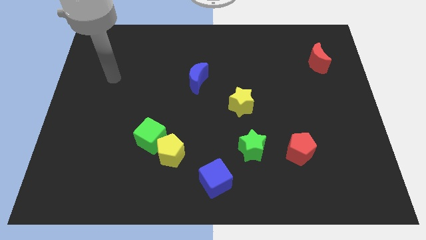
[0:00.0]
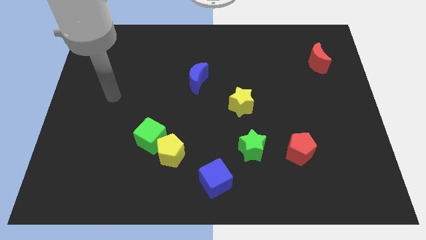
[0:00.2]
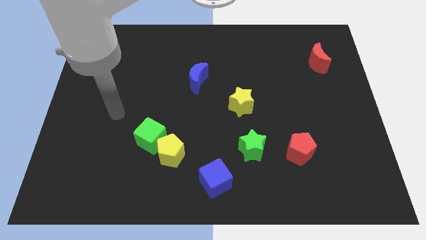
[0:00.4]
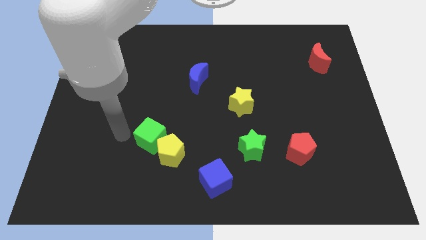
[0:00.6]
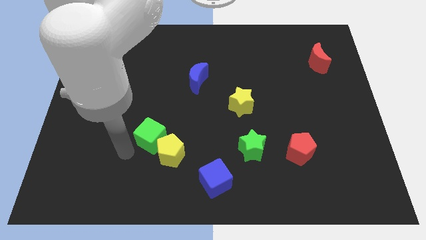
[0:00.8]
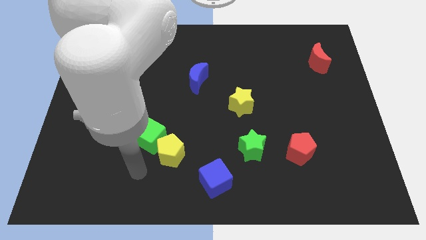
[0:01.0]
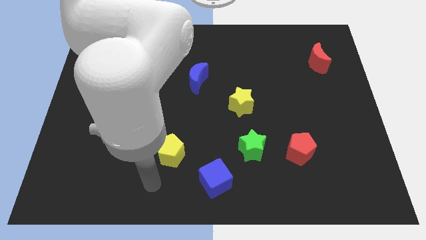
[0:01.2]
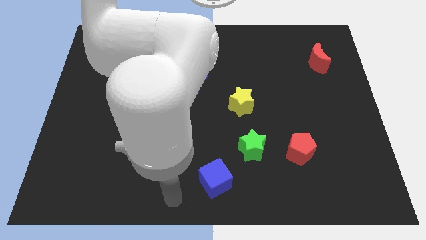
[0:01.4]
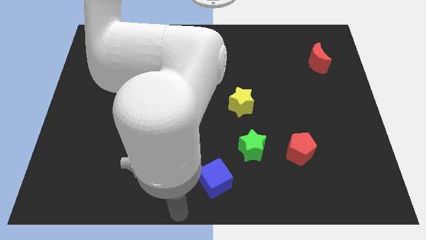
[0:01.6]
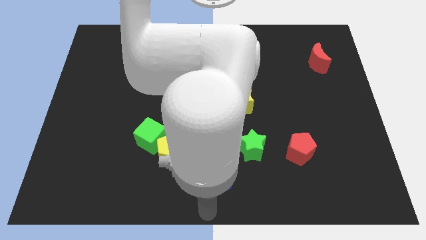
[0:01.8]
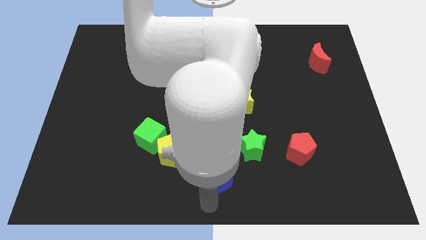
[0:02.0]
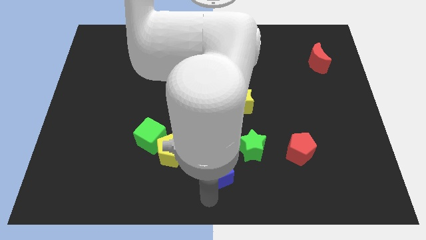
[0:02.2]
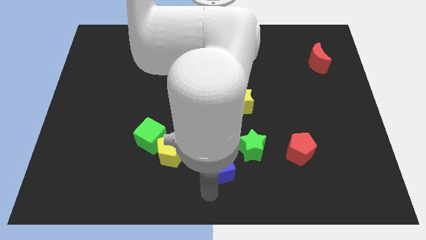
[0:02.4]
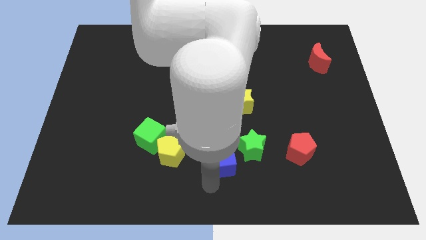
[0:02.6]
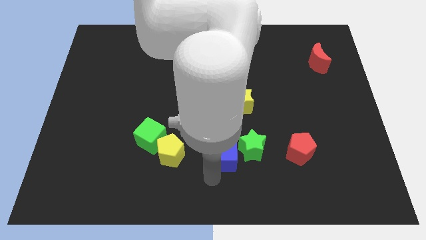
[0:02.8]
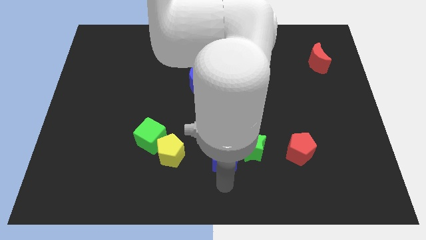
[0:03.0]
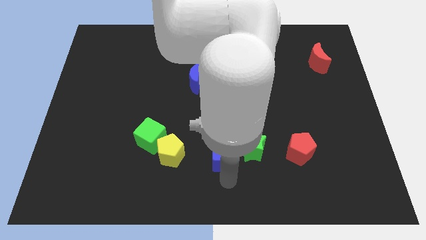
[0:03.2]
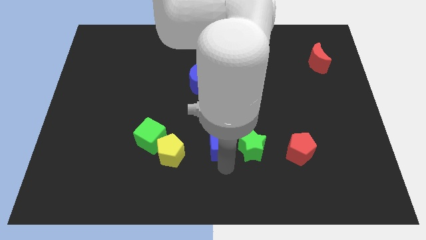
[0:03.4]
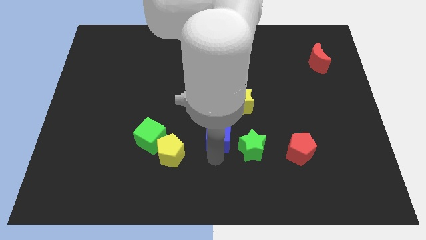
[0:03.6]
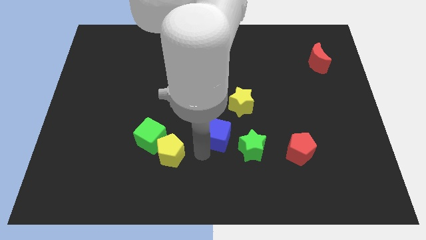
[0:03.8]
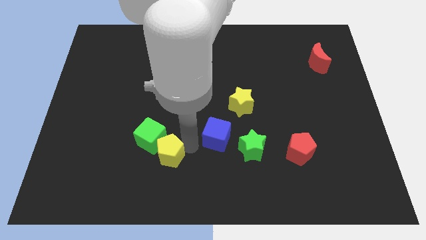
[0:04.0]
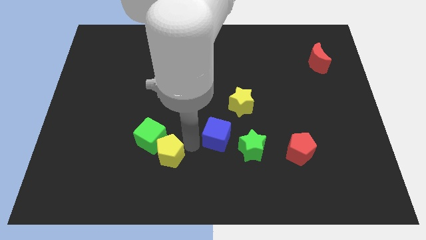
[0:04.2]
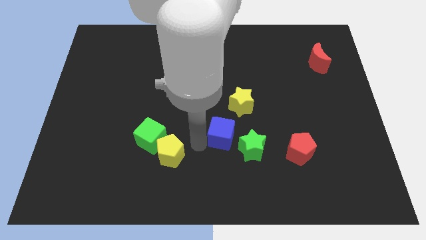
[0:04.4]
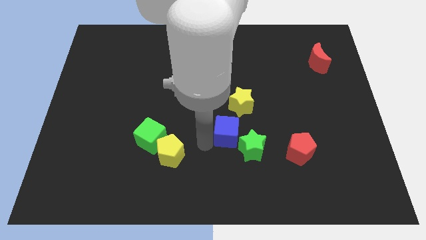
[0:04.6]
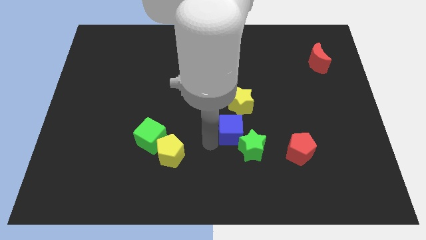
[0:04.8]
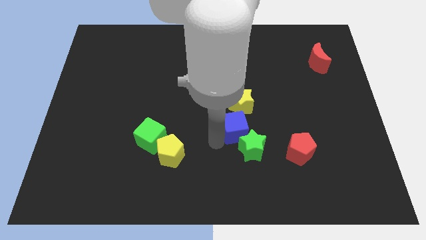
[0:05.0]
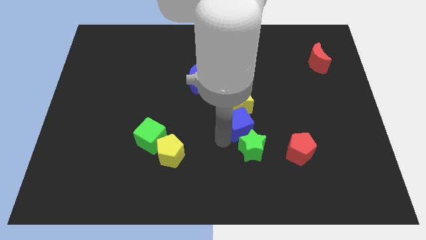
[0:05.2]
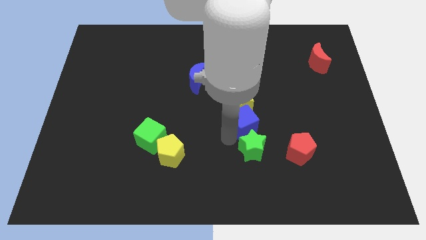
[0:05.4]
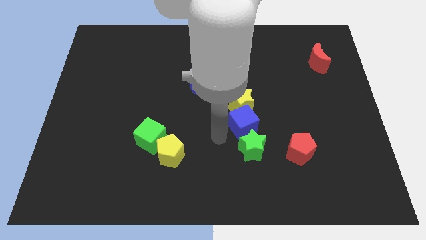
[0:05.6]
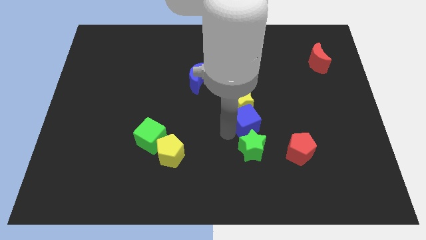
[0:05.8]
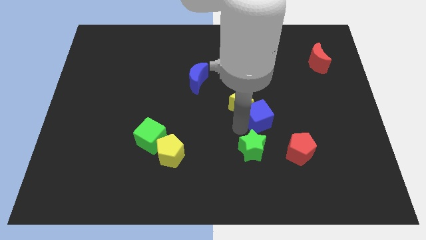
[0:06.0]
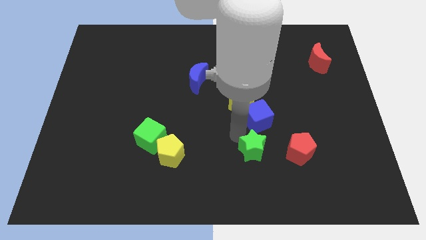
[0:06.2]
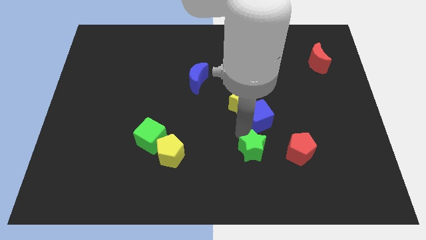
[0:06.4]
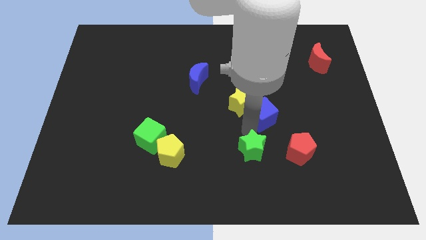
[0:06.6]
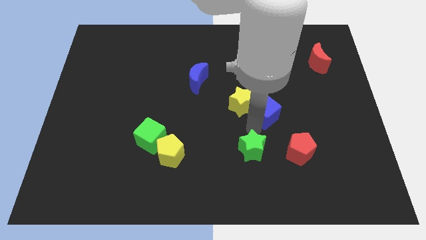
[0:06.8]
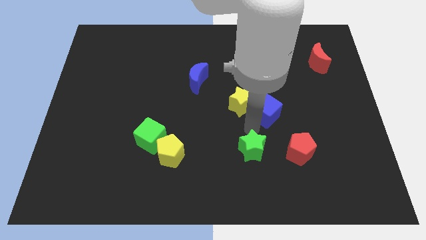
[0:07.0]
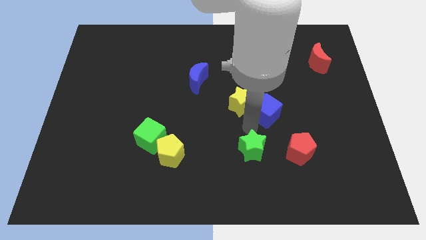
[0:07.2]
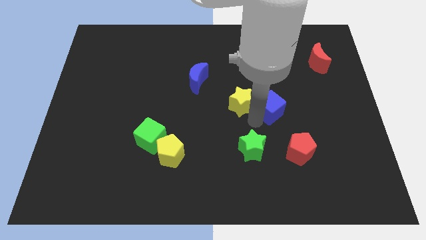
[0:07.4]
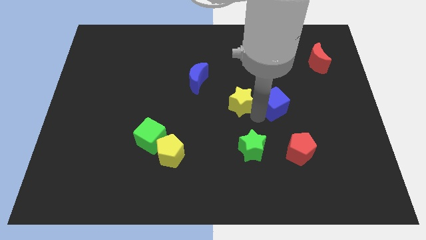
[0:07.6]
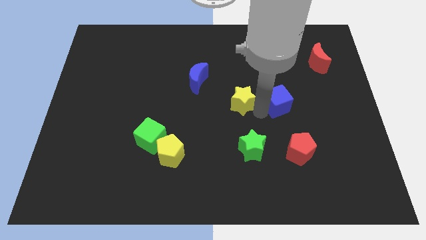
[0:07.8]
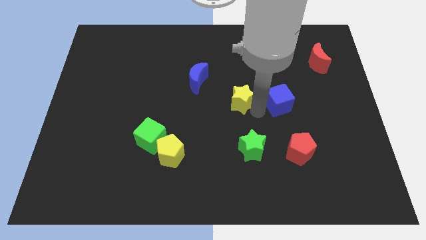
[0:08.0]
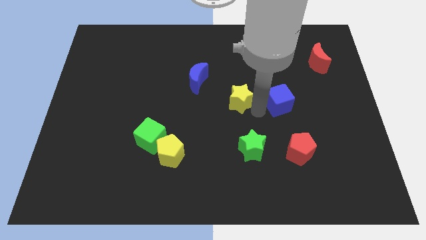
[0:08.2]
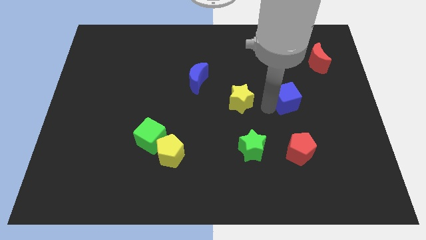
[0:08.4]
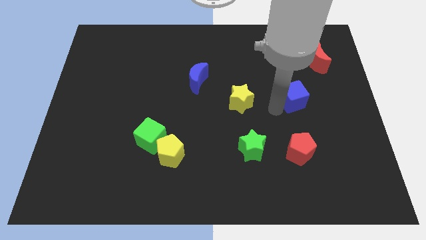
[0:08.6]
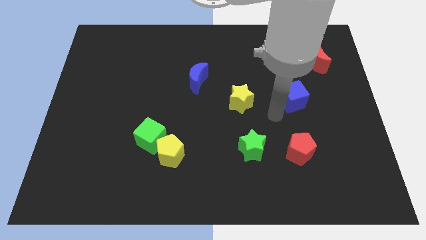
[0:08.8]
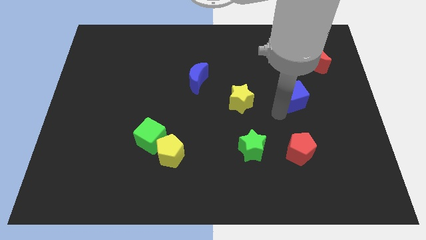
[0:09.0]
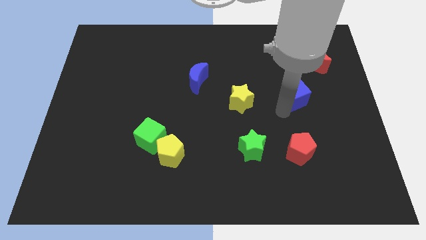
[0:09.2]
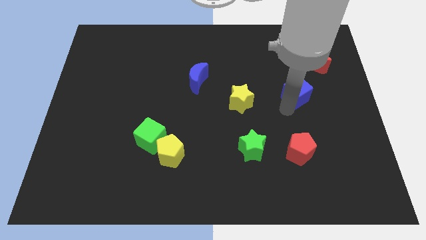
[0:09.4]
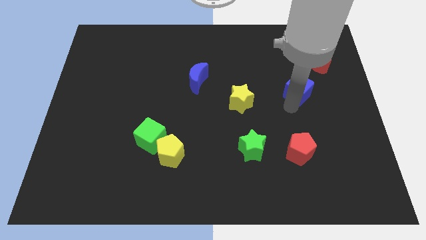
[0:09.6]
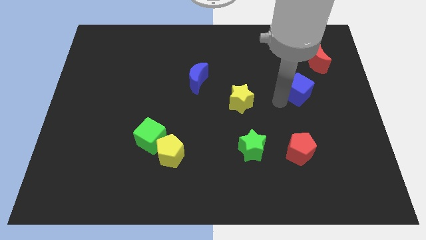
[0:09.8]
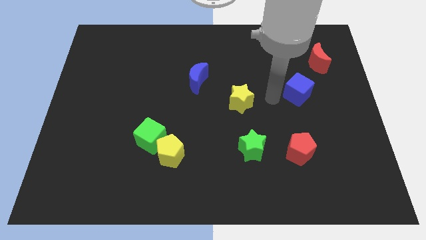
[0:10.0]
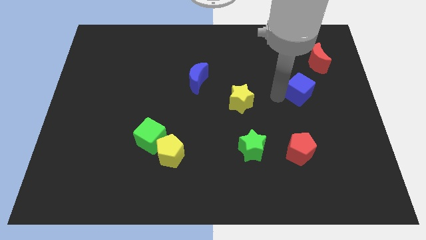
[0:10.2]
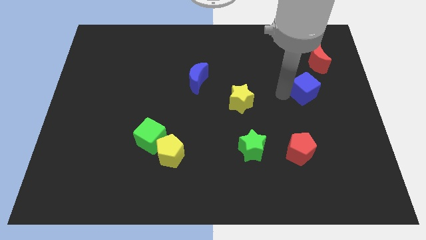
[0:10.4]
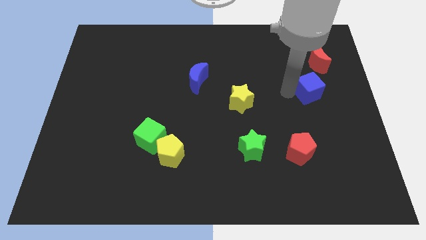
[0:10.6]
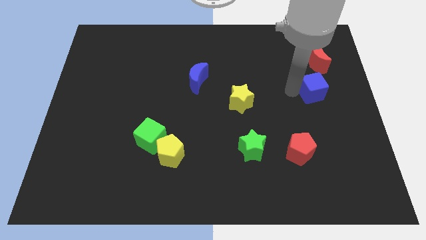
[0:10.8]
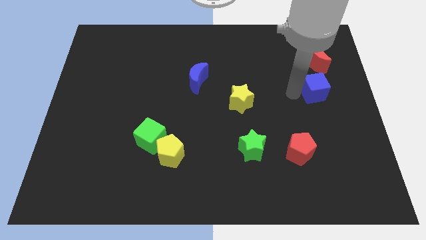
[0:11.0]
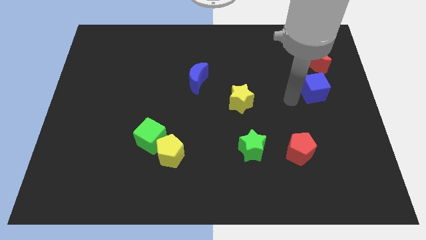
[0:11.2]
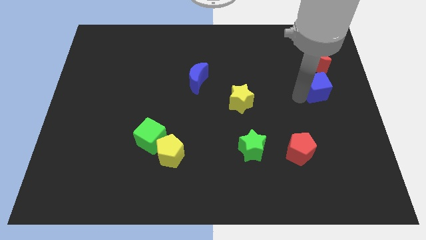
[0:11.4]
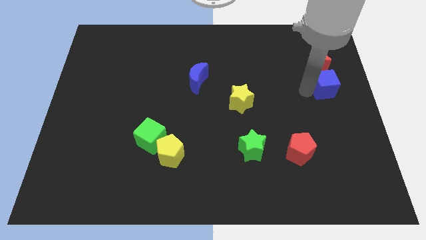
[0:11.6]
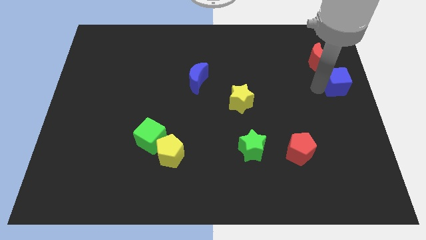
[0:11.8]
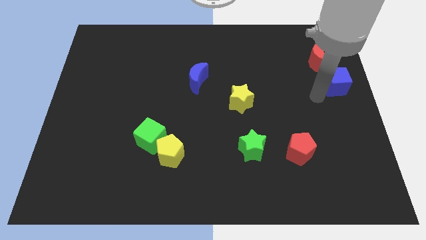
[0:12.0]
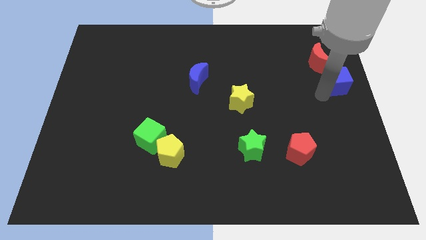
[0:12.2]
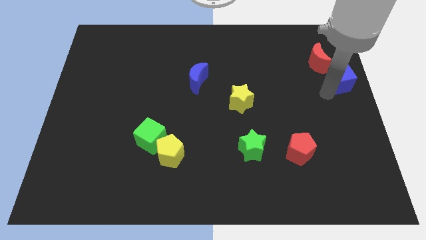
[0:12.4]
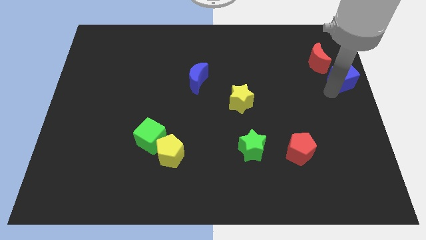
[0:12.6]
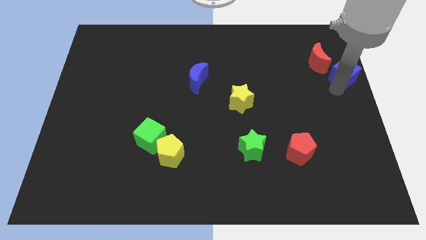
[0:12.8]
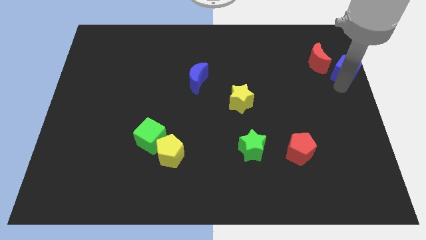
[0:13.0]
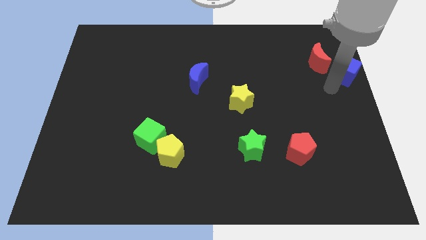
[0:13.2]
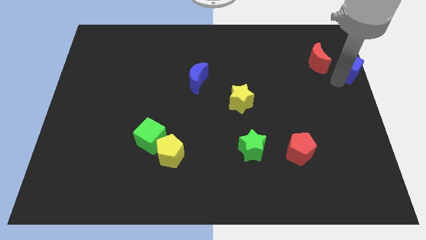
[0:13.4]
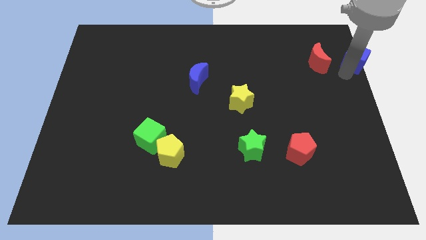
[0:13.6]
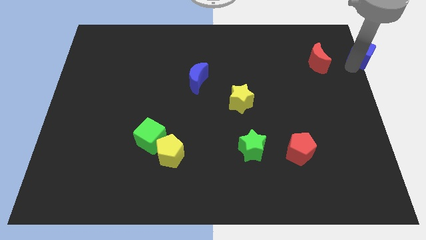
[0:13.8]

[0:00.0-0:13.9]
slide the blue cube to the top right corner
